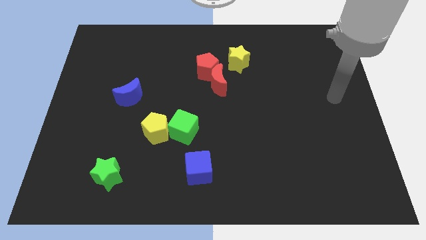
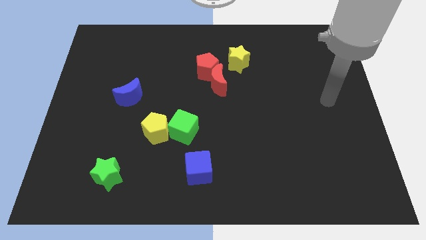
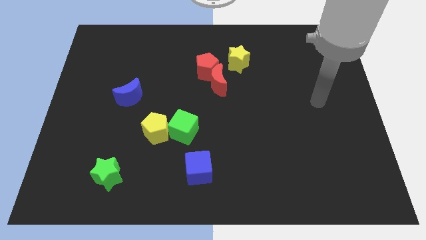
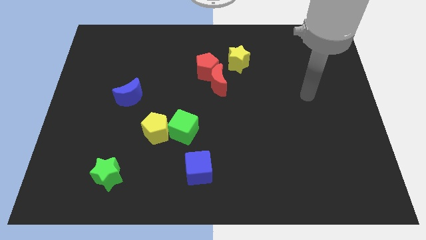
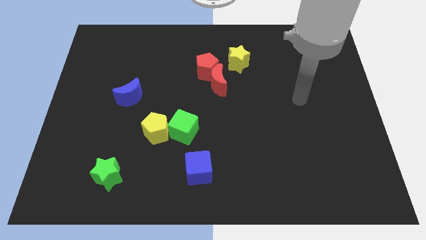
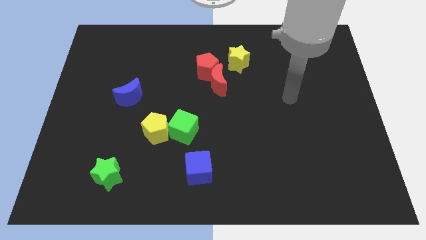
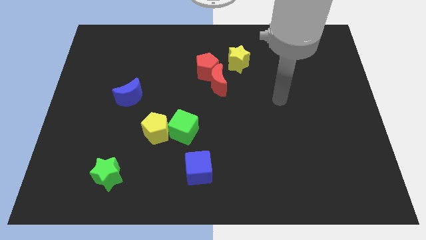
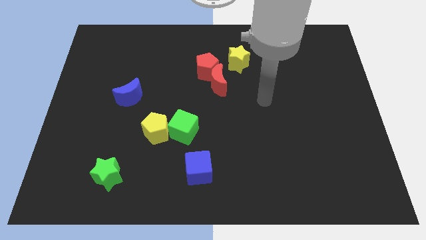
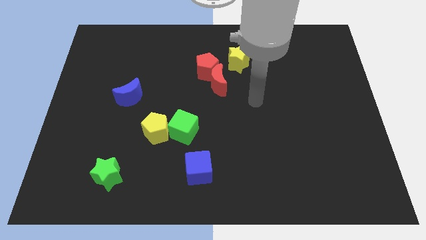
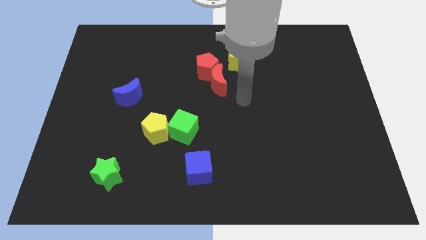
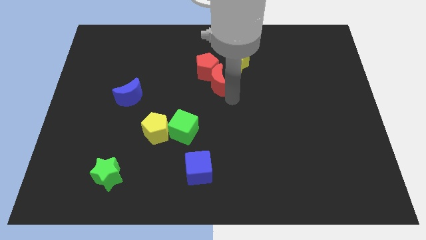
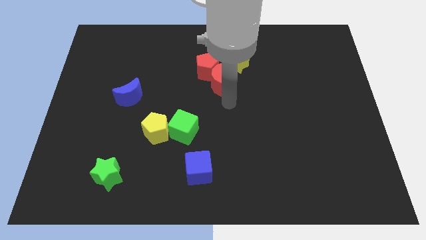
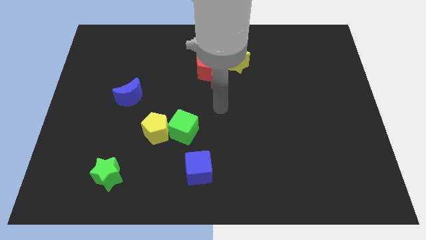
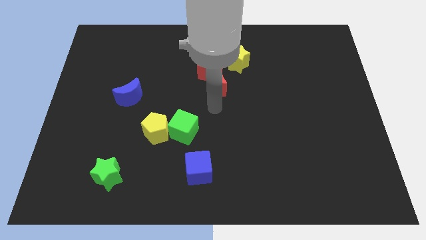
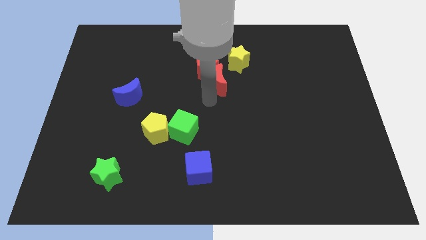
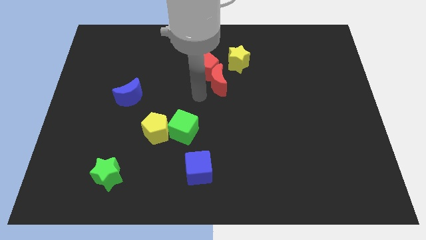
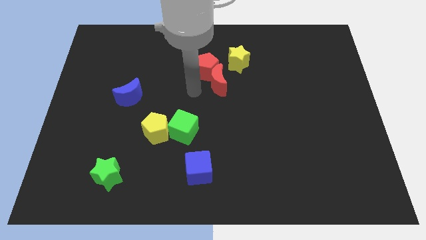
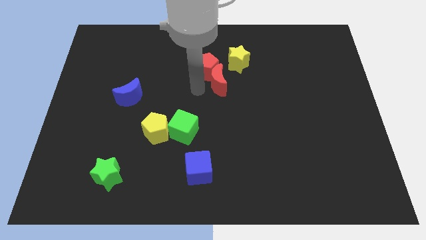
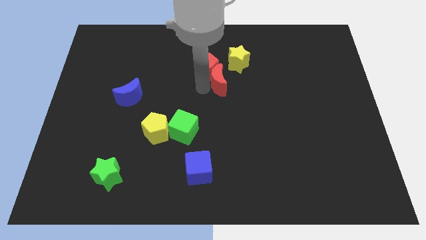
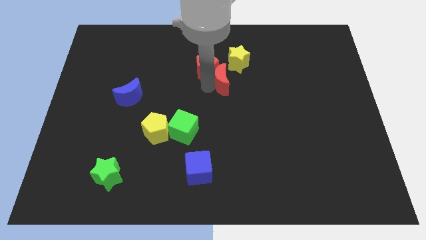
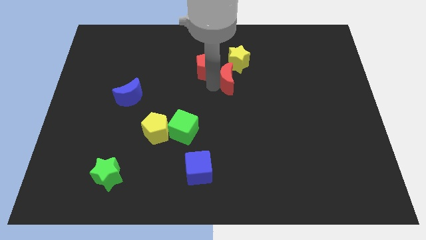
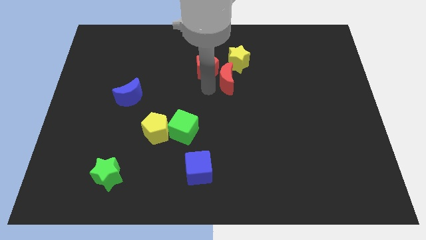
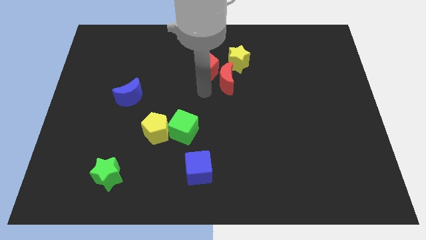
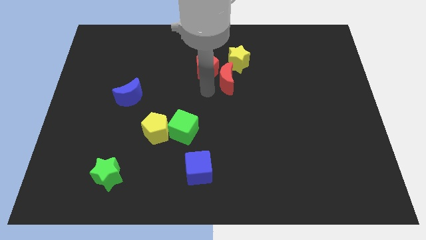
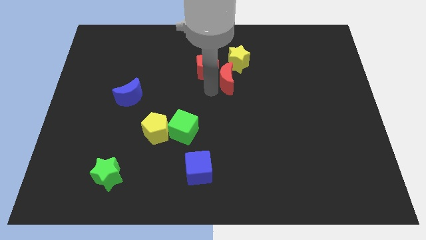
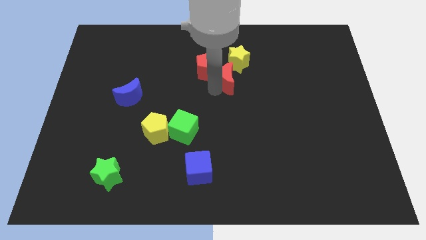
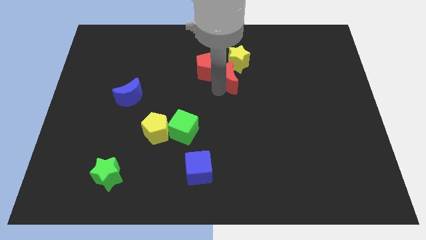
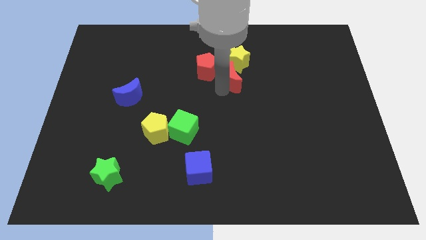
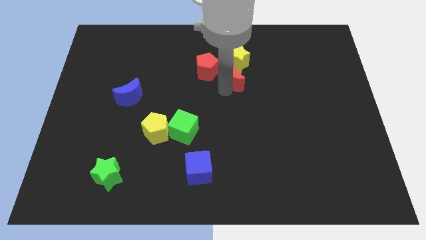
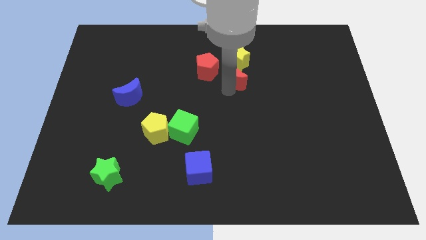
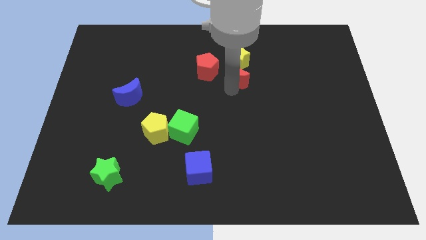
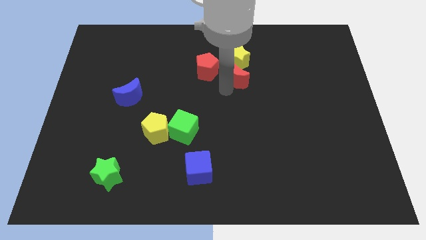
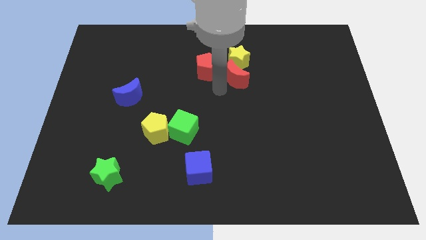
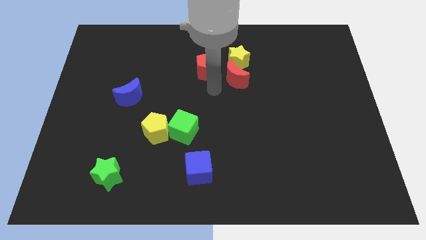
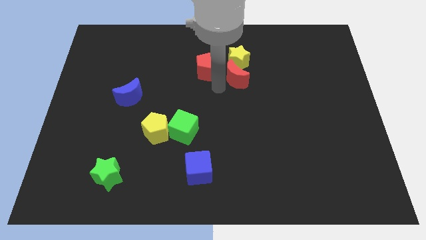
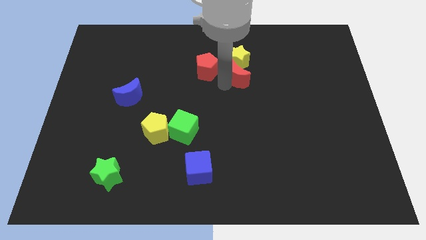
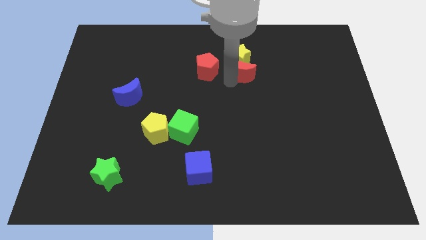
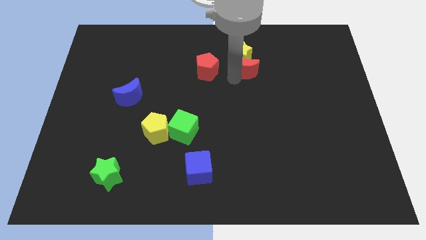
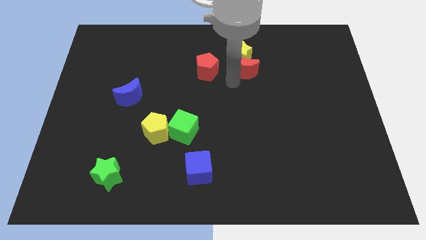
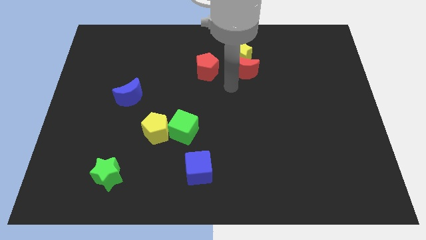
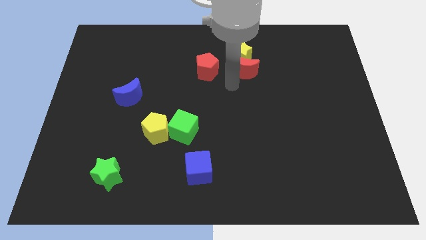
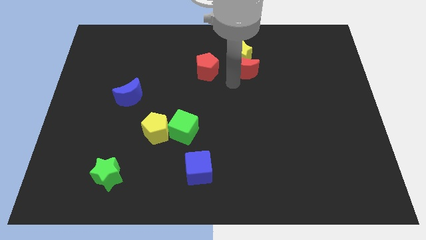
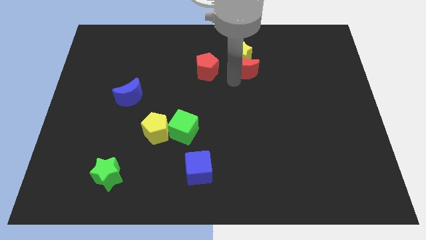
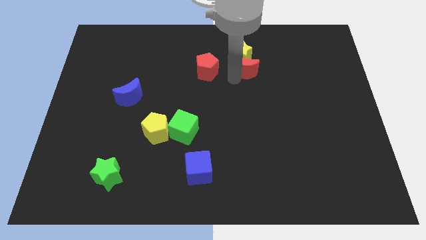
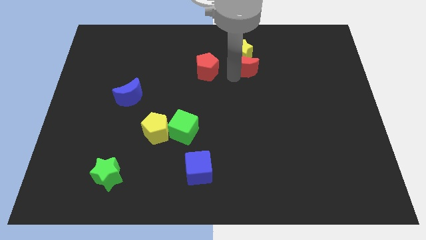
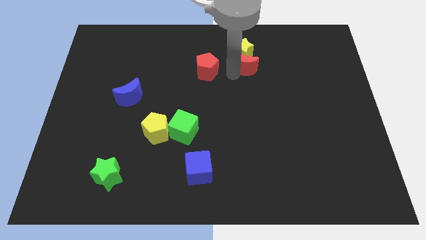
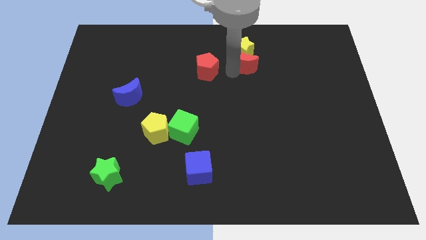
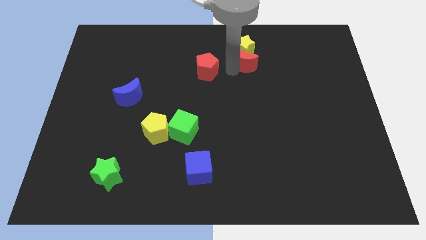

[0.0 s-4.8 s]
push the red moon to the top right side of the red pentagon

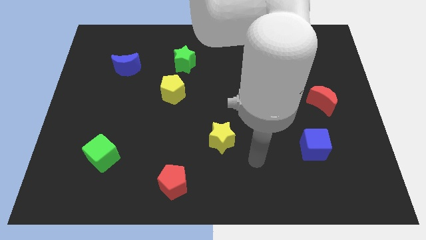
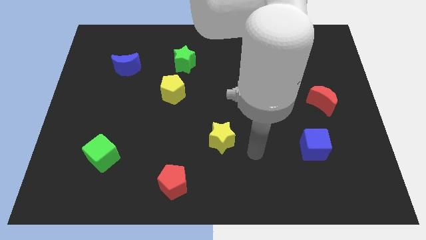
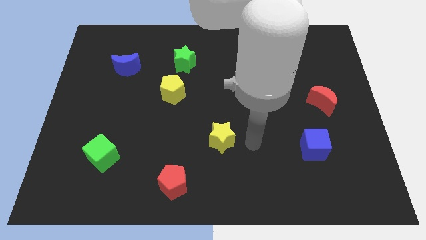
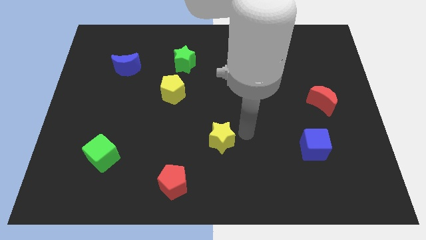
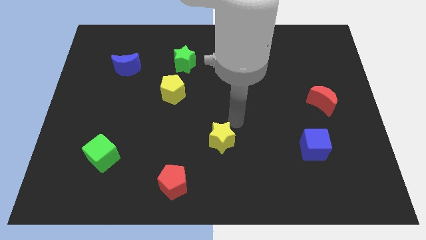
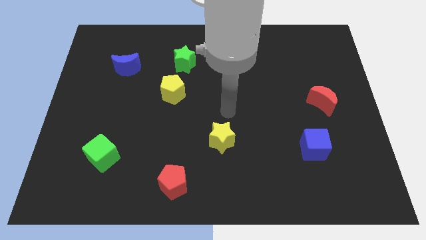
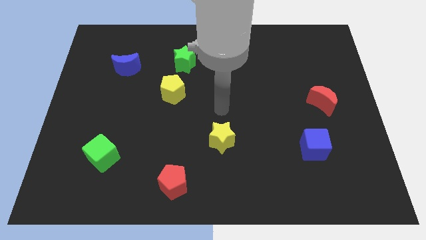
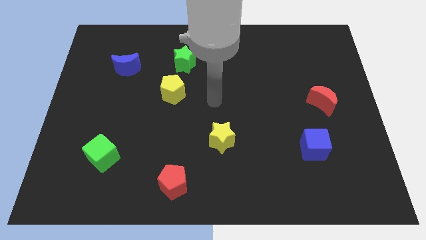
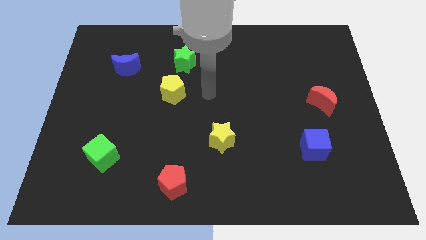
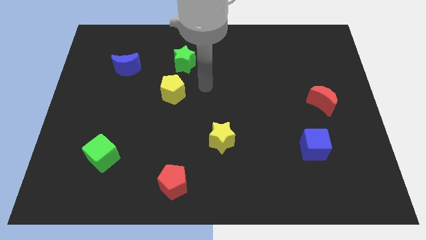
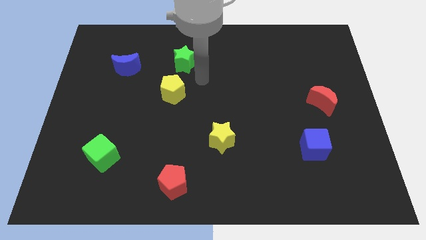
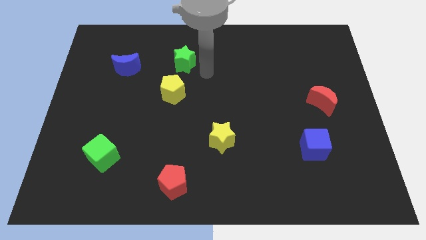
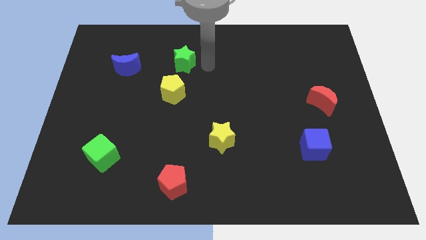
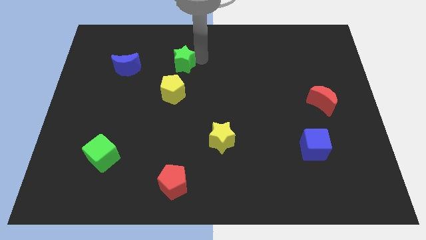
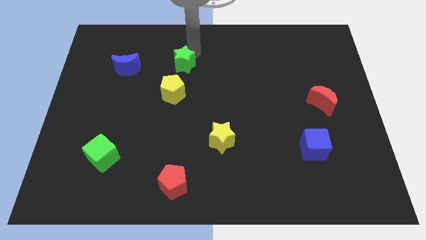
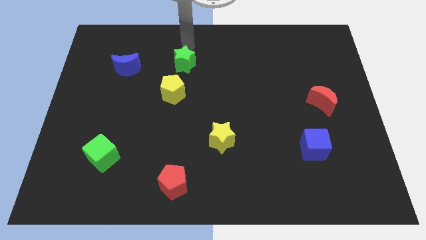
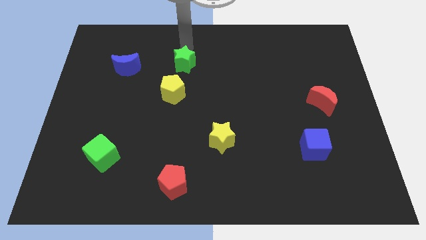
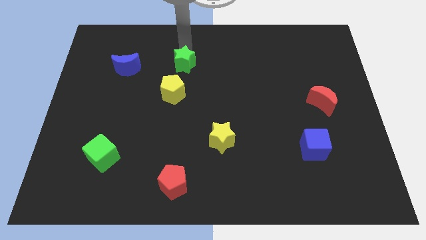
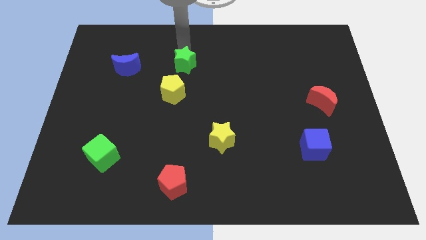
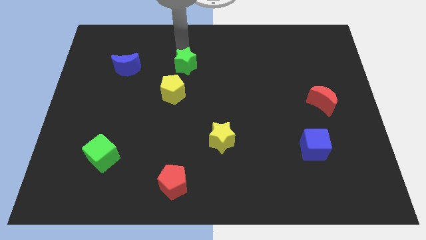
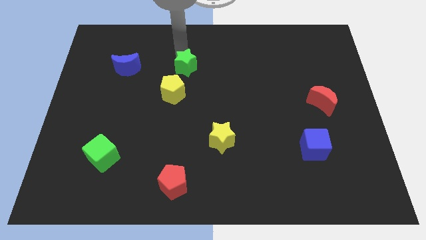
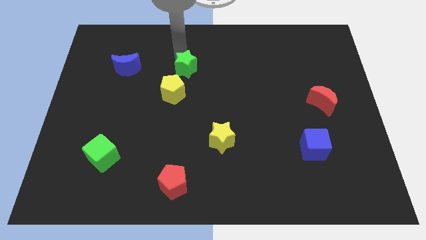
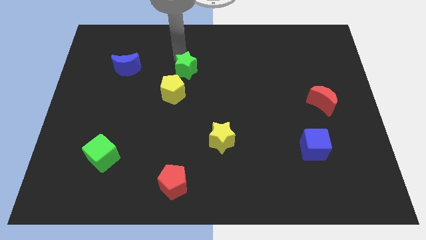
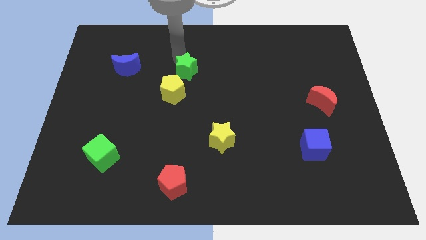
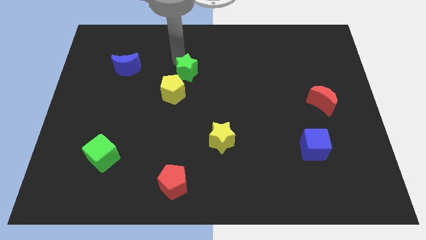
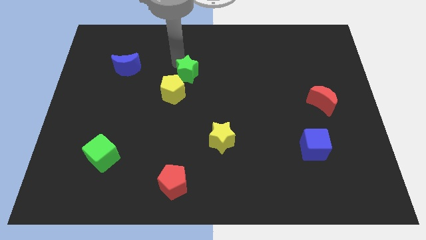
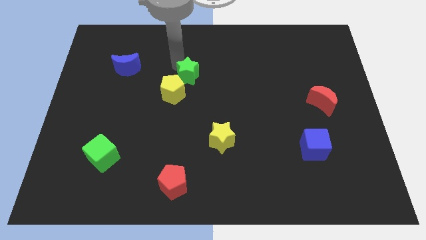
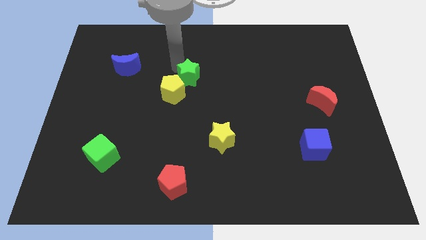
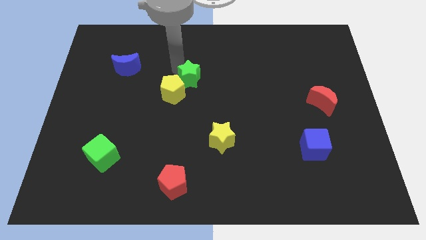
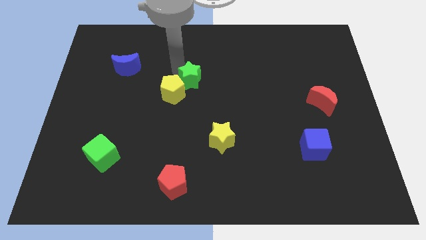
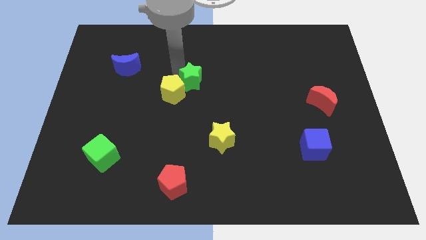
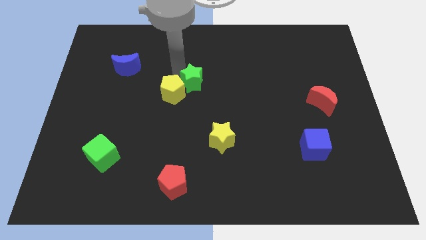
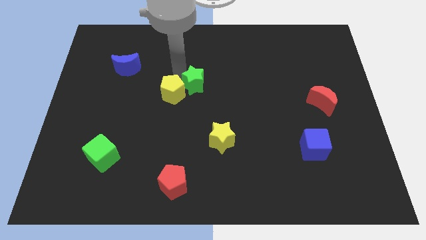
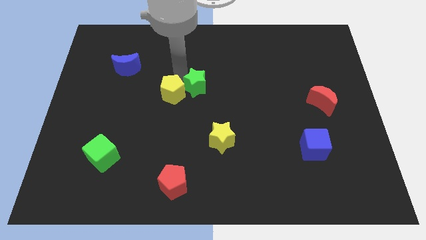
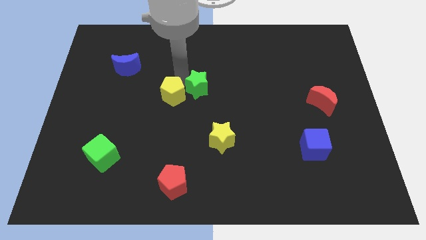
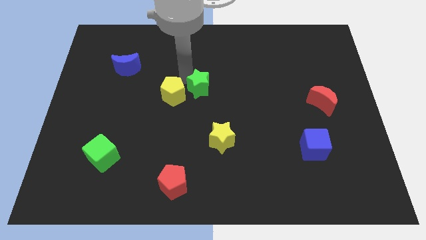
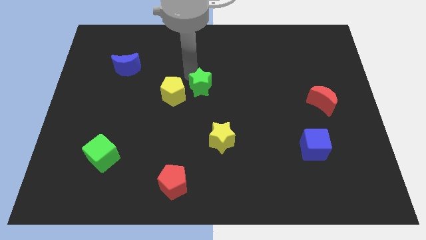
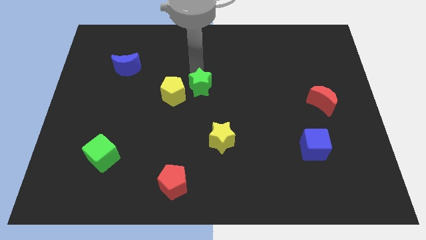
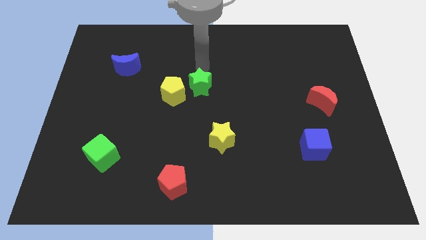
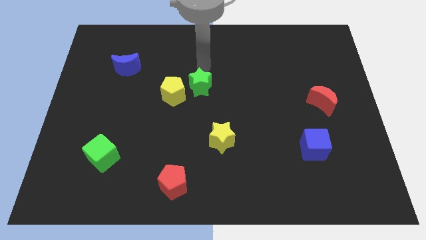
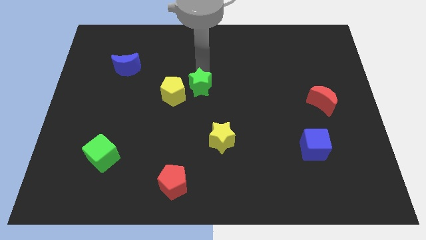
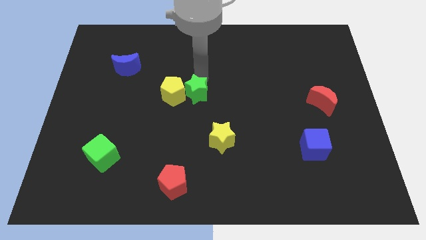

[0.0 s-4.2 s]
slide the green star to the bottom right of the yellow pentagon
